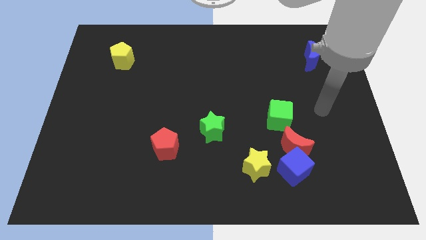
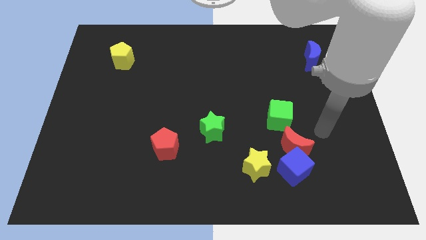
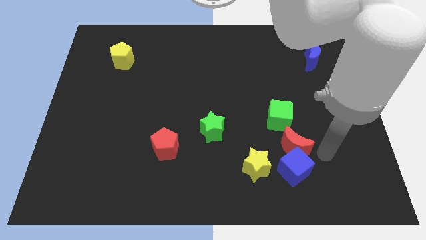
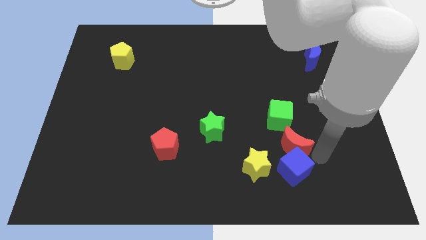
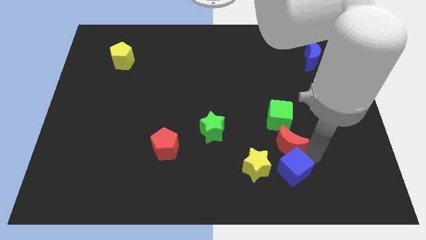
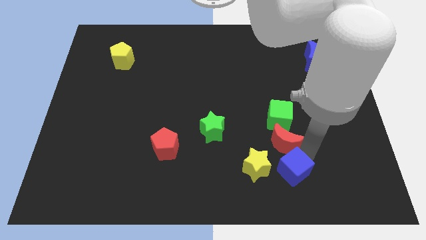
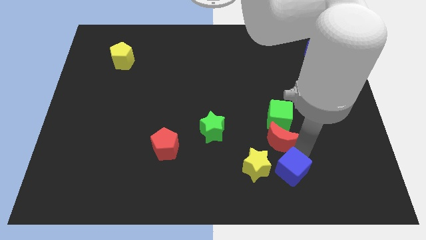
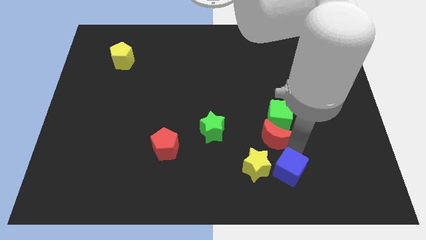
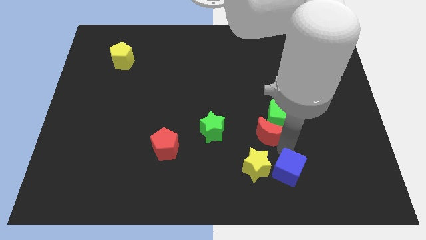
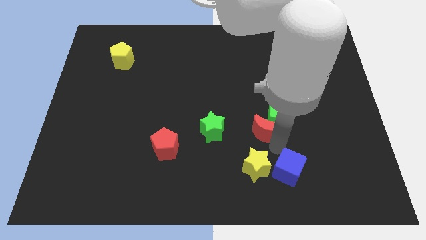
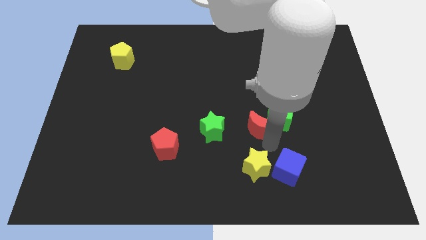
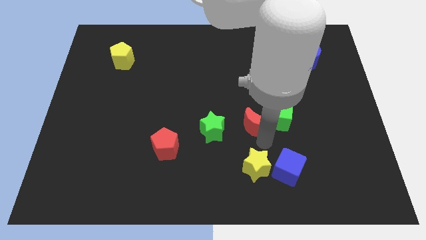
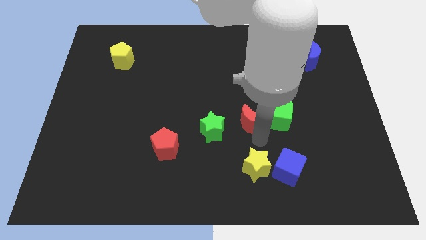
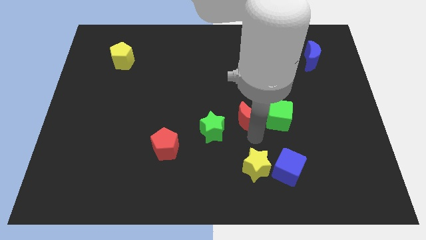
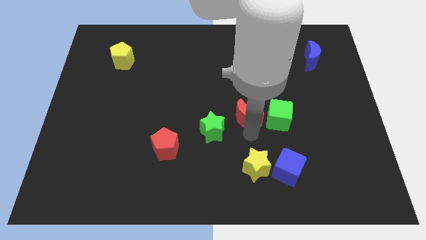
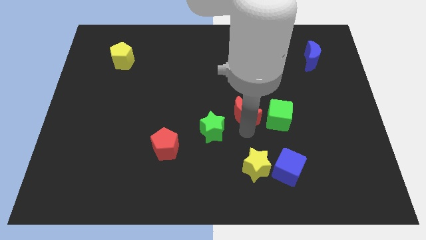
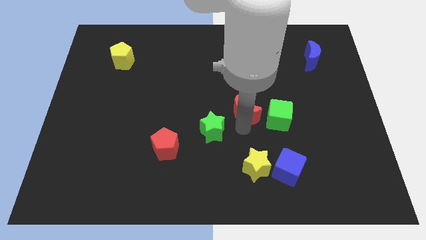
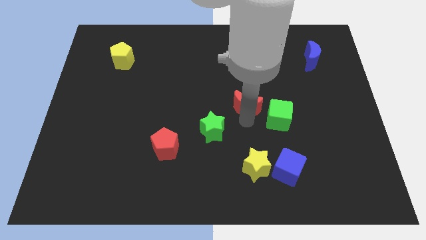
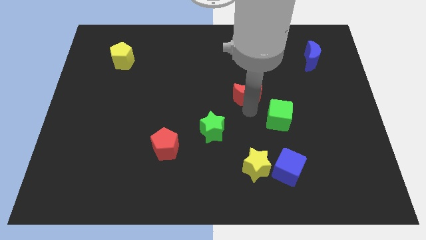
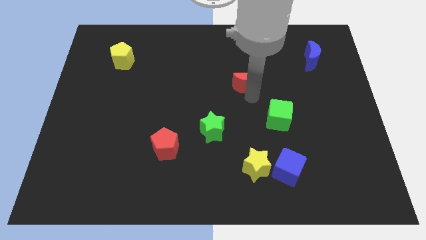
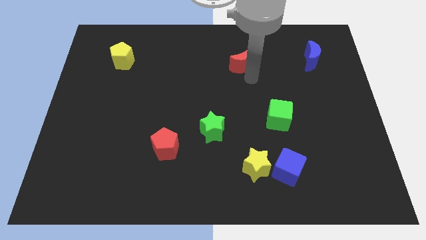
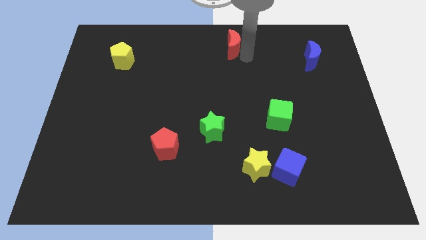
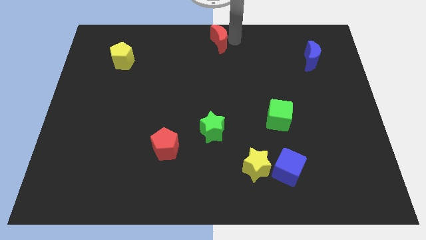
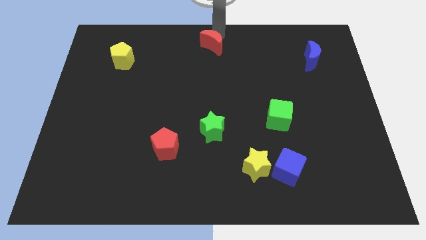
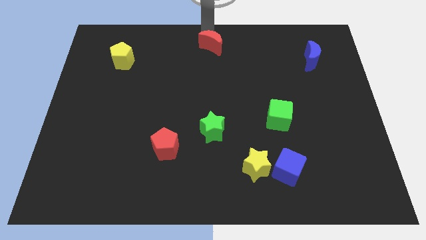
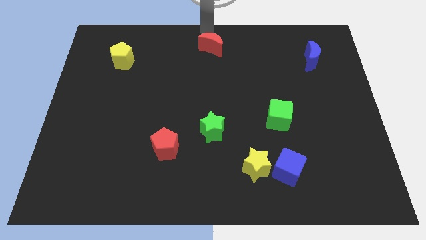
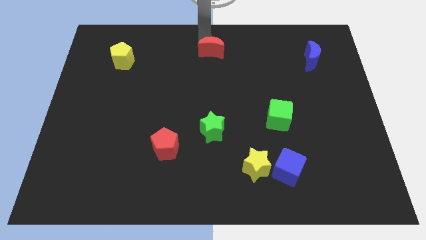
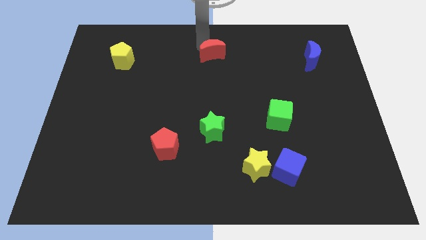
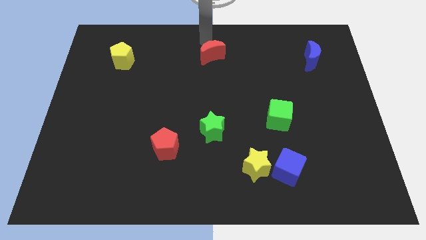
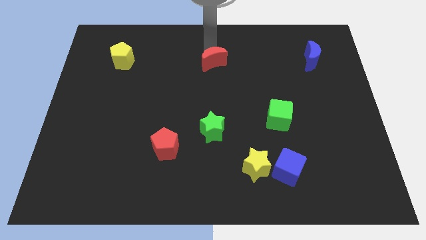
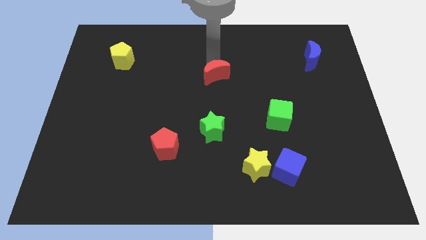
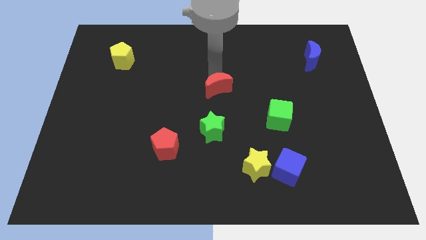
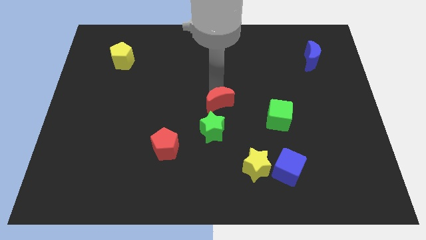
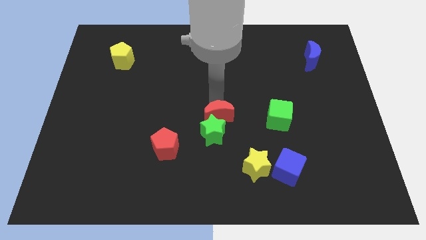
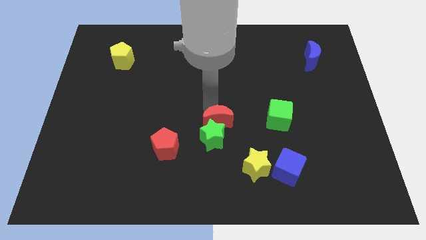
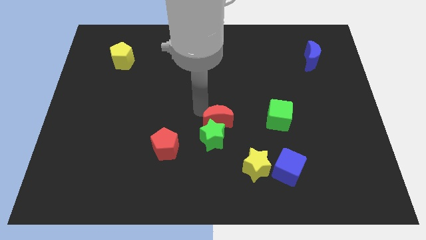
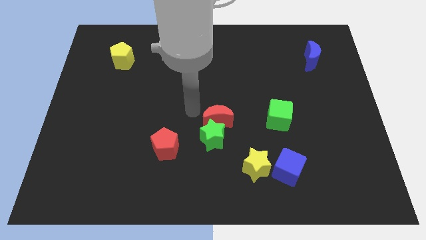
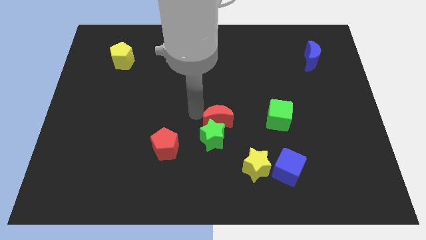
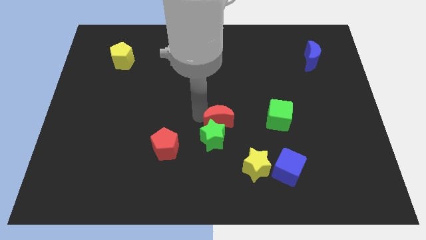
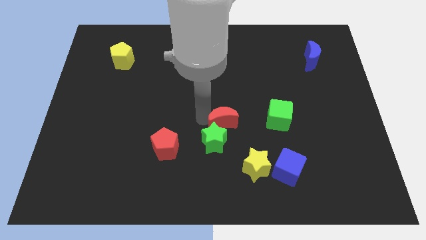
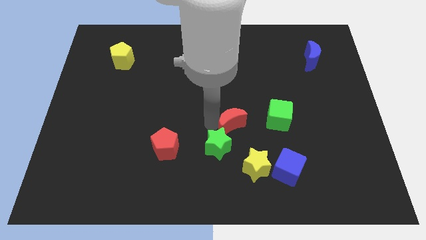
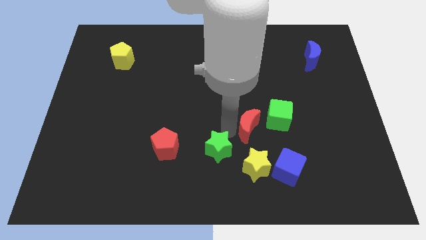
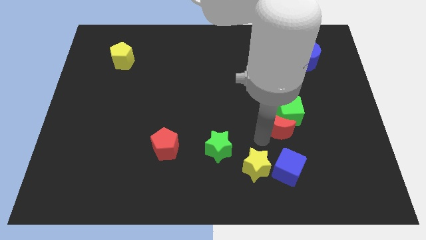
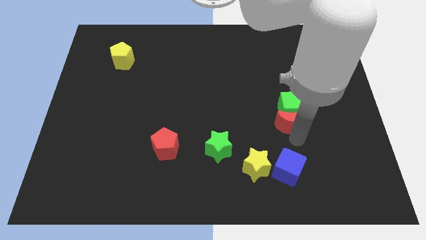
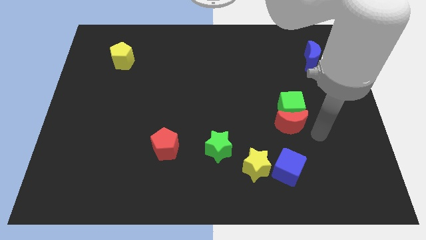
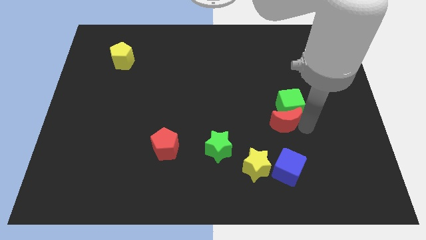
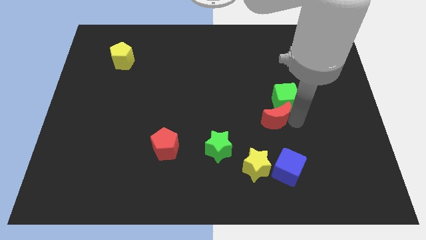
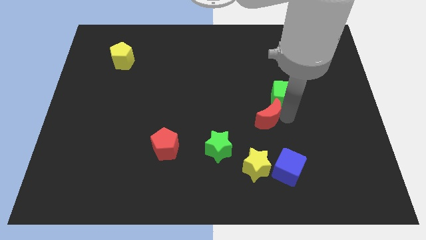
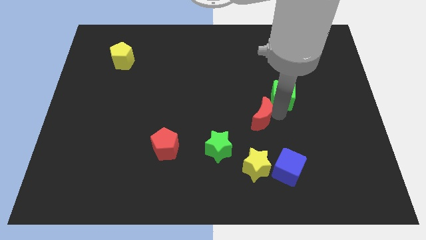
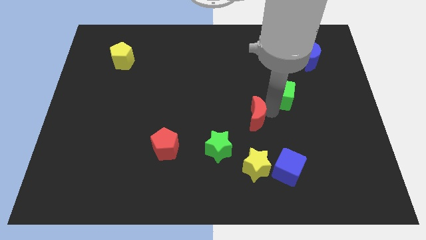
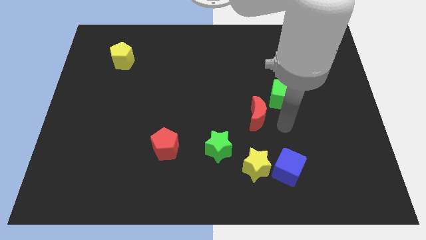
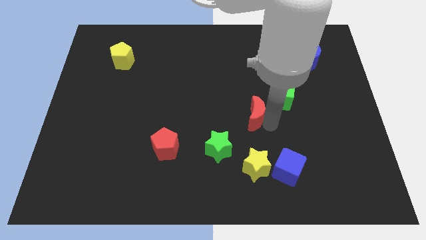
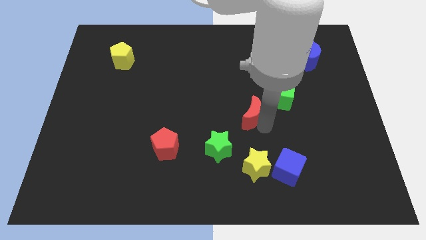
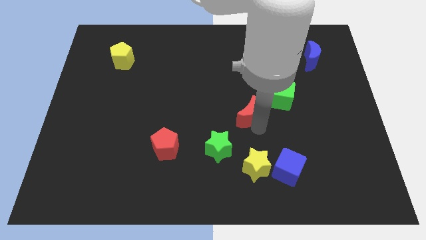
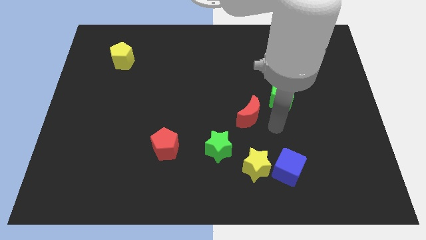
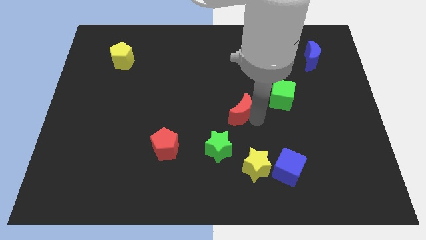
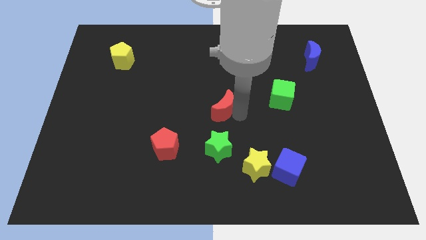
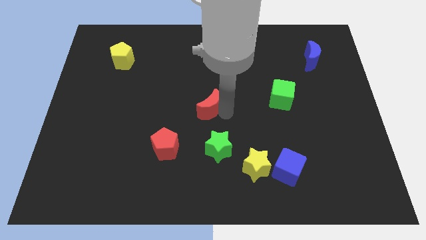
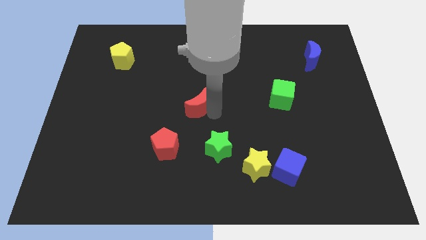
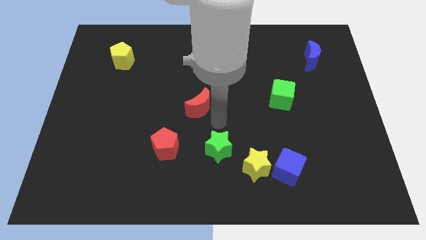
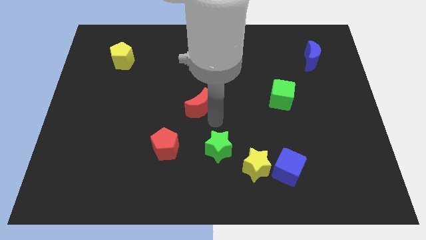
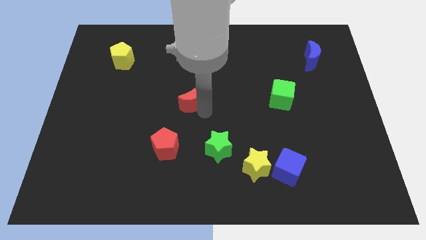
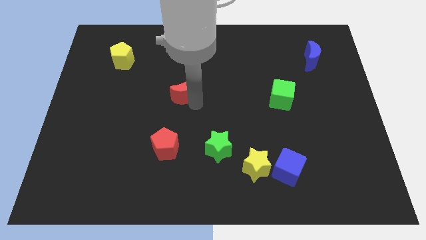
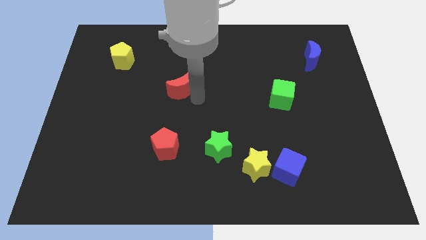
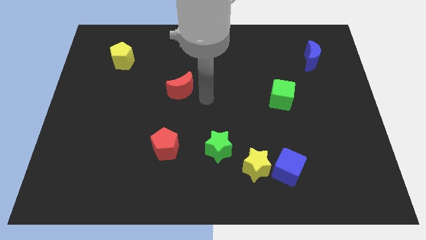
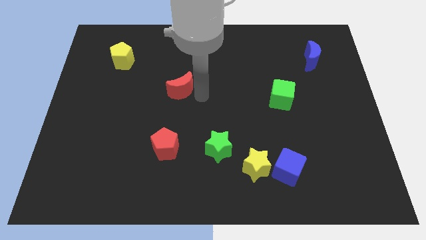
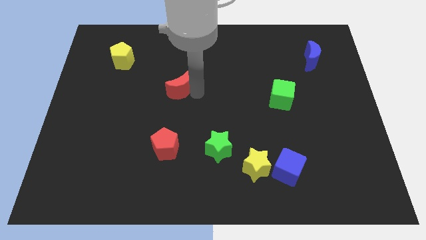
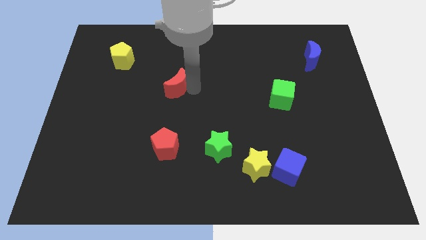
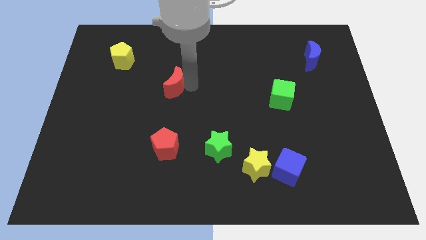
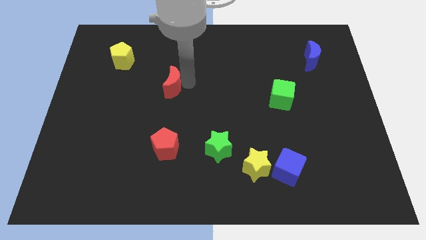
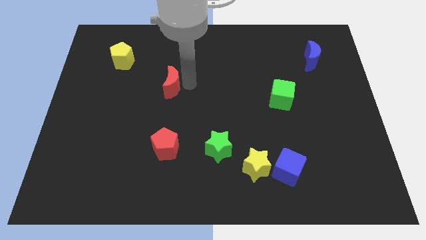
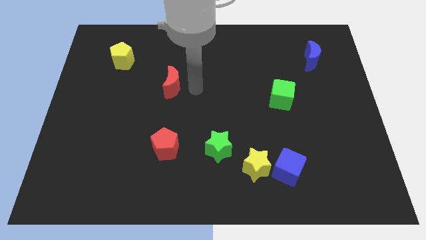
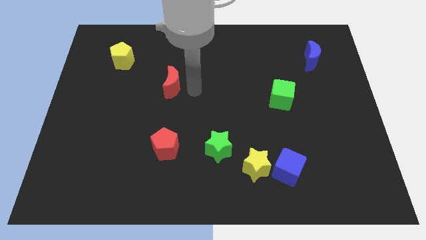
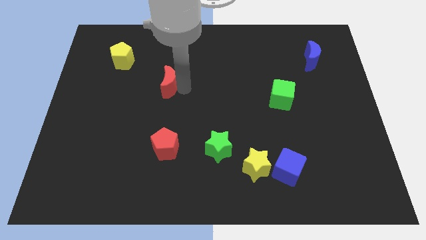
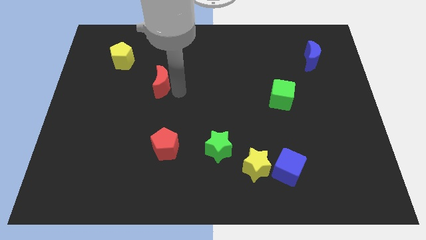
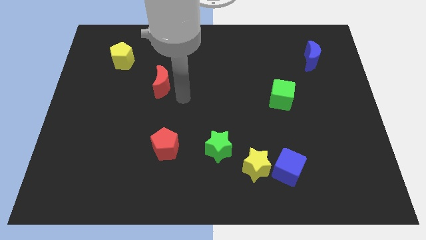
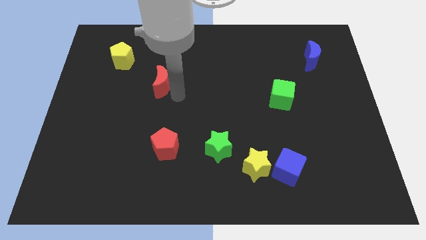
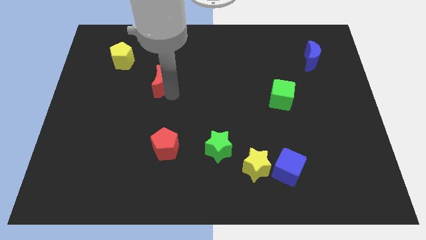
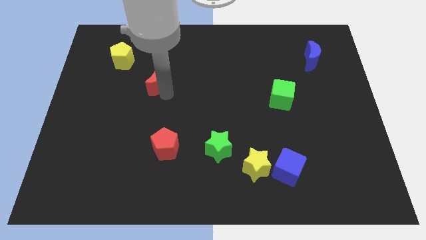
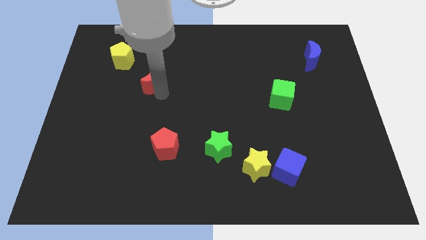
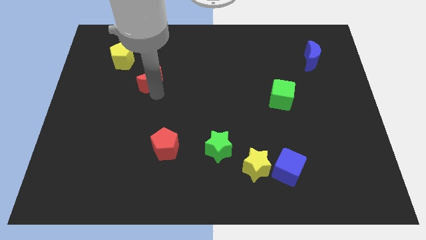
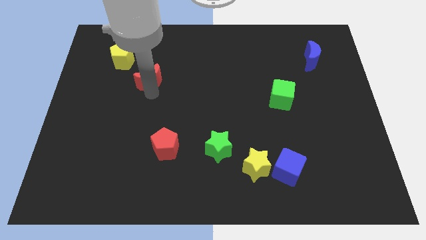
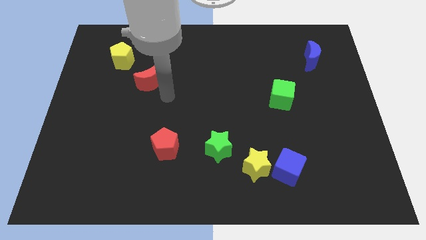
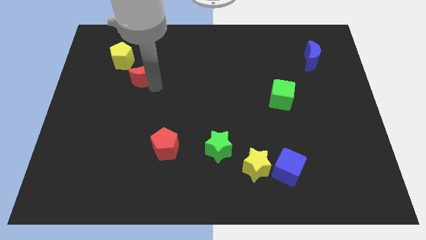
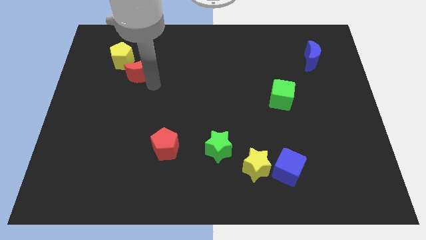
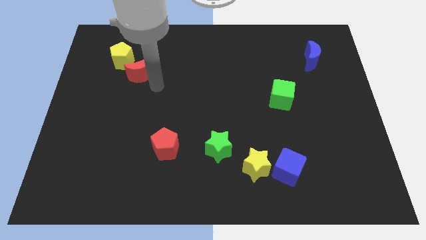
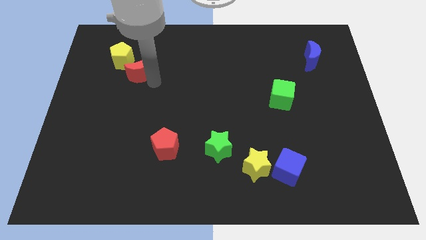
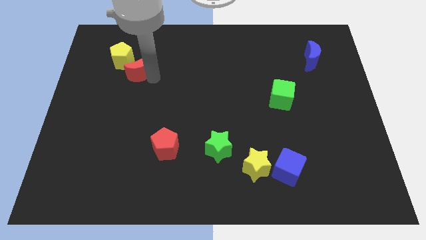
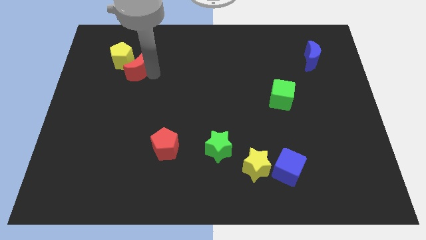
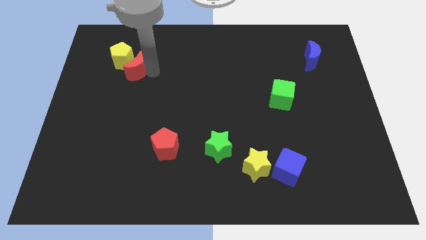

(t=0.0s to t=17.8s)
move the red moon next to the yellow pentagon
